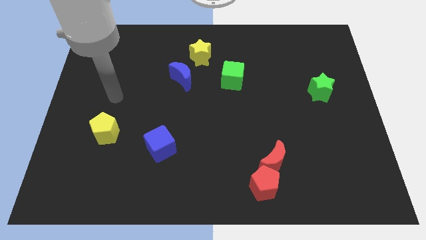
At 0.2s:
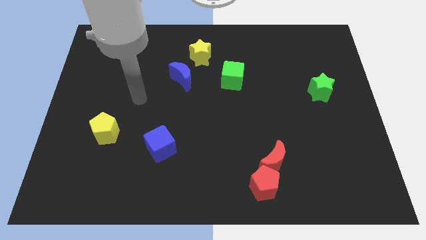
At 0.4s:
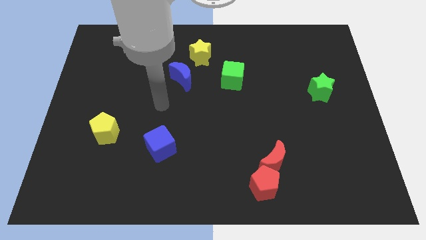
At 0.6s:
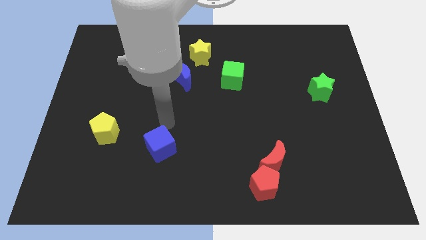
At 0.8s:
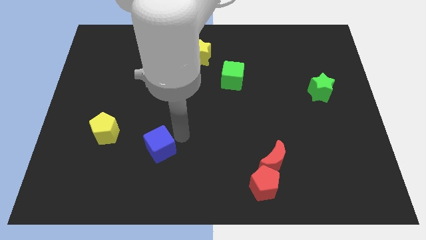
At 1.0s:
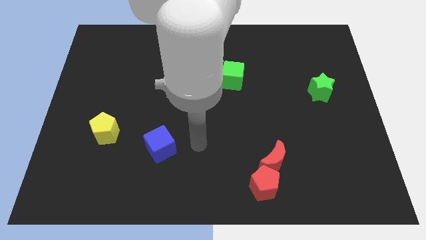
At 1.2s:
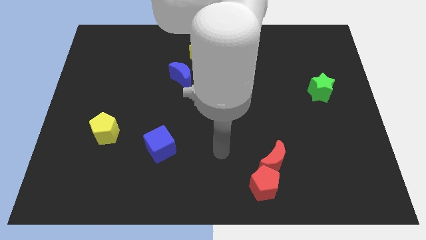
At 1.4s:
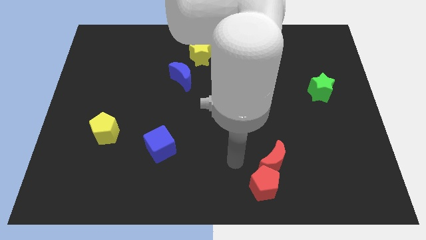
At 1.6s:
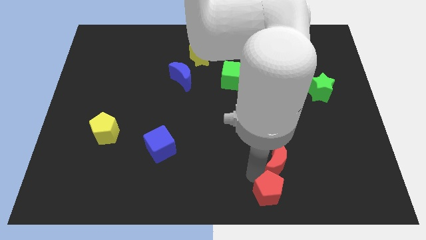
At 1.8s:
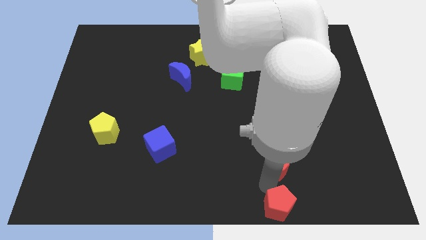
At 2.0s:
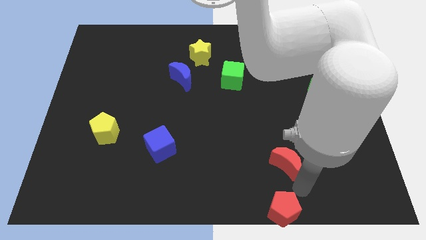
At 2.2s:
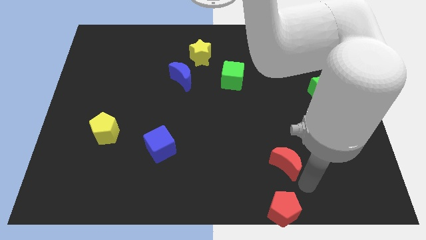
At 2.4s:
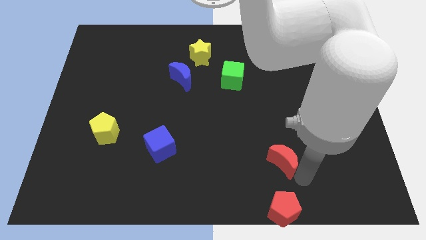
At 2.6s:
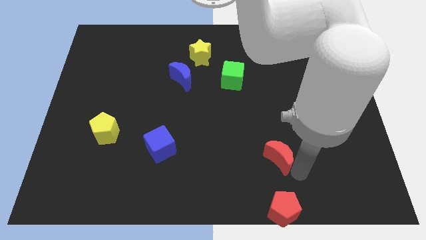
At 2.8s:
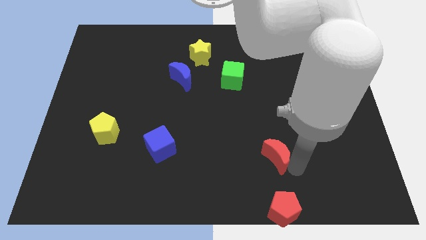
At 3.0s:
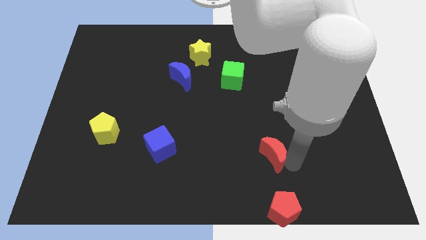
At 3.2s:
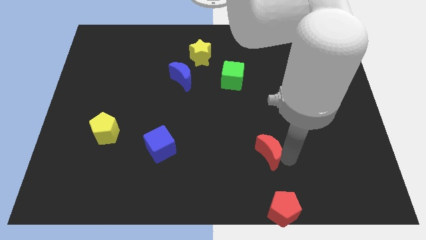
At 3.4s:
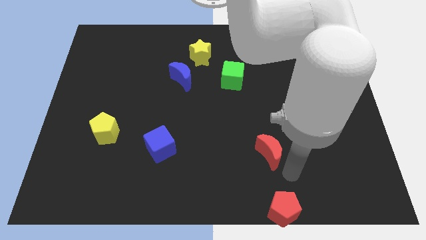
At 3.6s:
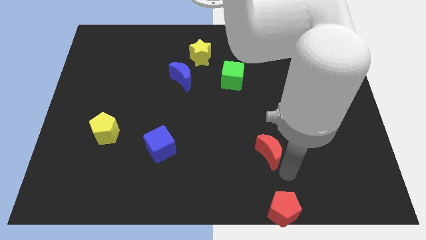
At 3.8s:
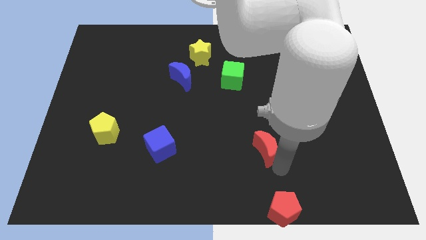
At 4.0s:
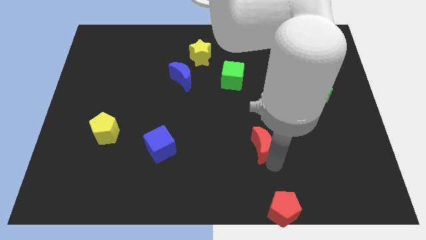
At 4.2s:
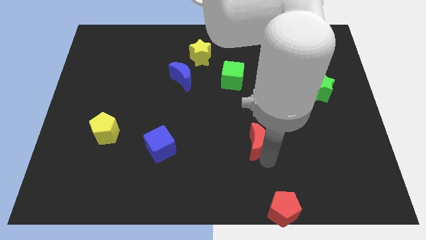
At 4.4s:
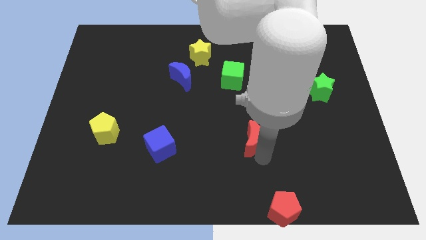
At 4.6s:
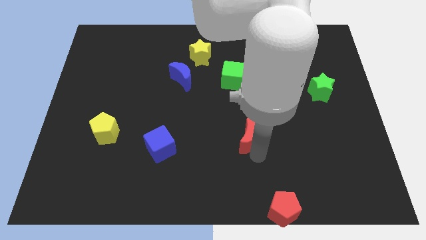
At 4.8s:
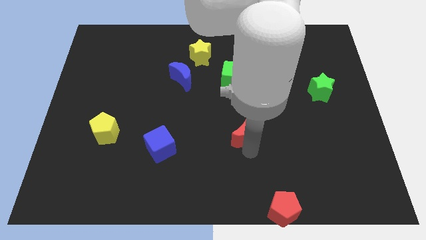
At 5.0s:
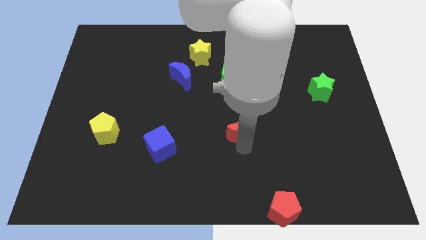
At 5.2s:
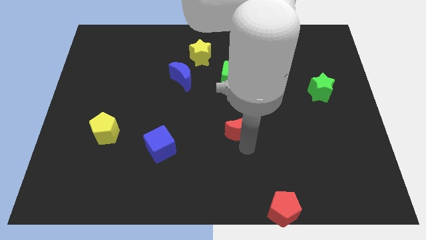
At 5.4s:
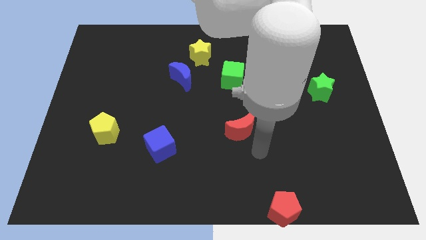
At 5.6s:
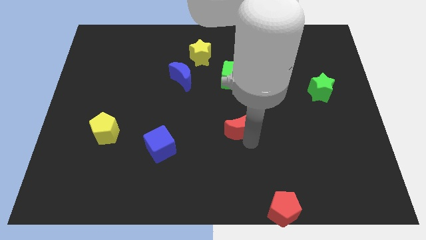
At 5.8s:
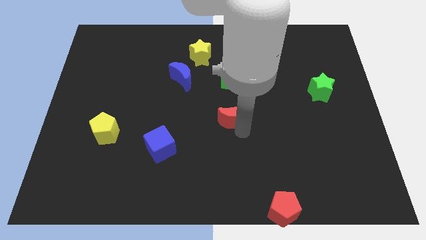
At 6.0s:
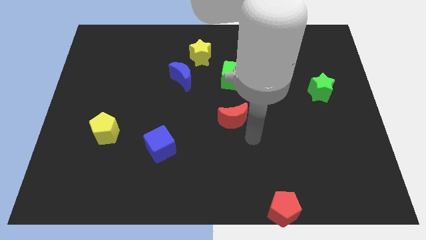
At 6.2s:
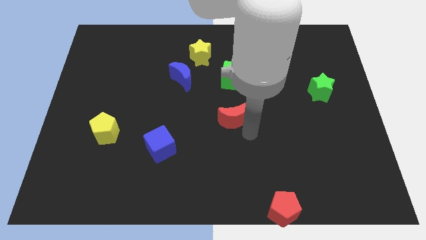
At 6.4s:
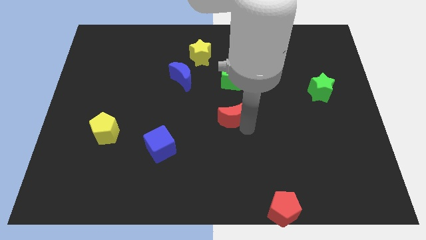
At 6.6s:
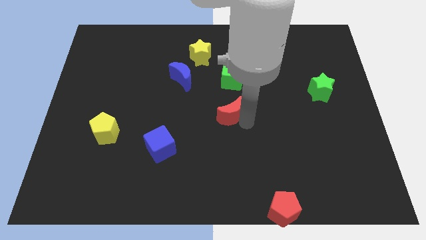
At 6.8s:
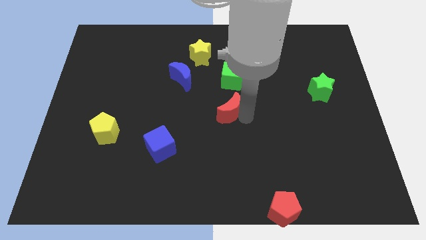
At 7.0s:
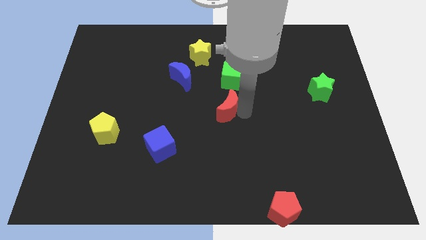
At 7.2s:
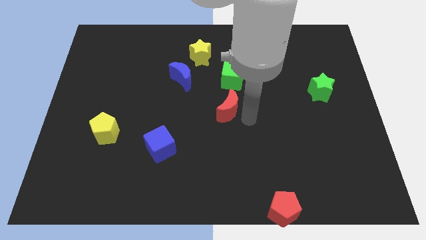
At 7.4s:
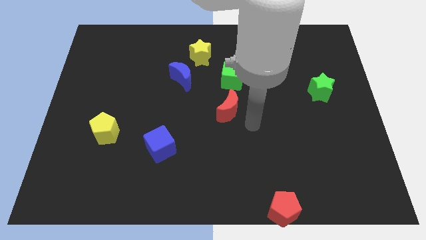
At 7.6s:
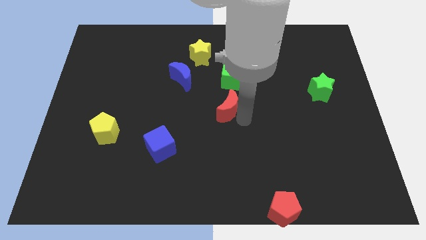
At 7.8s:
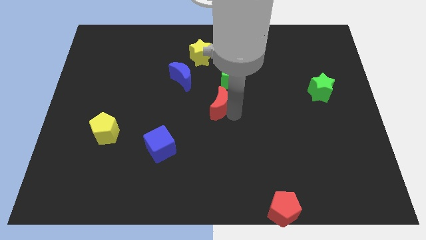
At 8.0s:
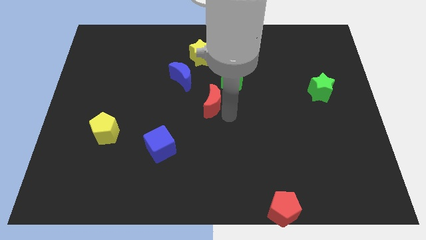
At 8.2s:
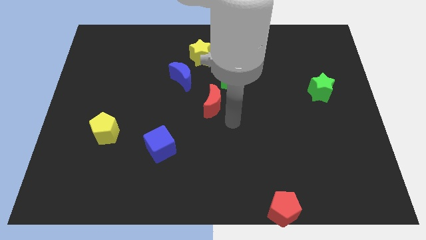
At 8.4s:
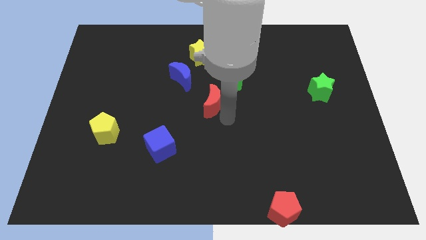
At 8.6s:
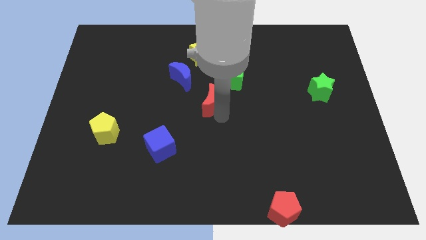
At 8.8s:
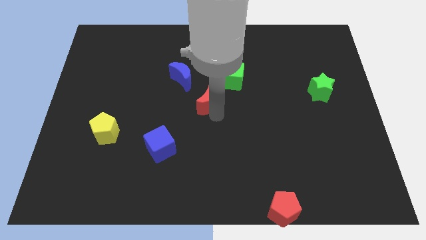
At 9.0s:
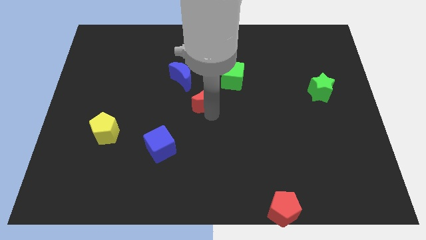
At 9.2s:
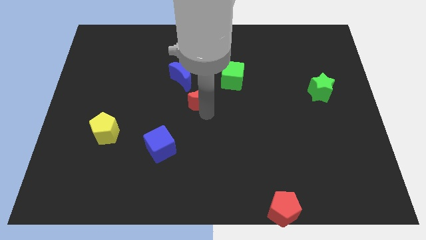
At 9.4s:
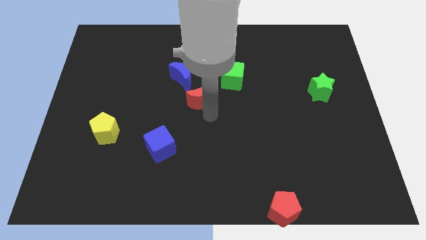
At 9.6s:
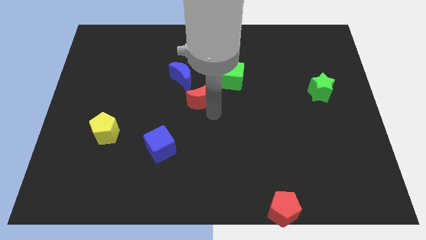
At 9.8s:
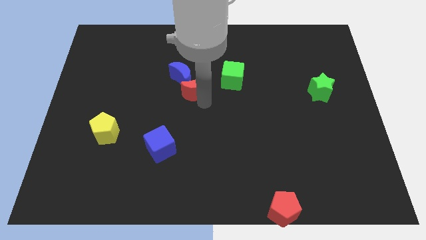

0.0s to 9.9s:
put the red moon next to the blue moon

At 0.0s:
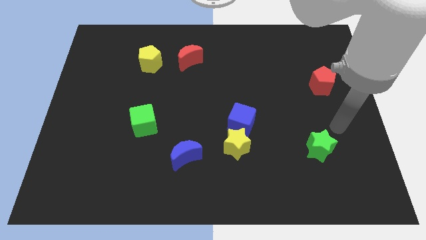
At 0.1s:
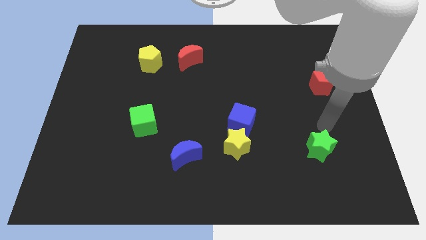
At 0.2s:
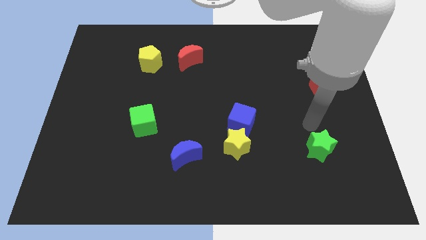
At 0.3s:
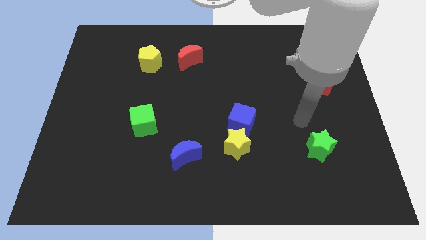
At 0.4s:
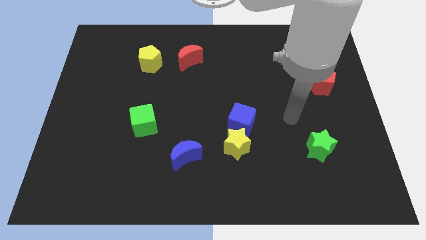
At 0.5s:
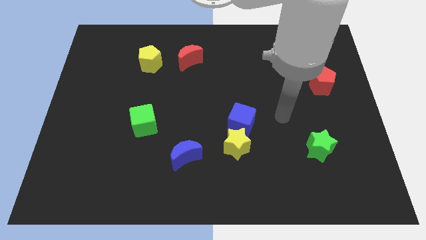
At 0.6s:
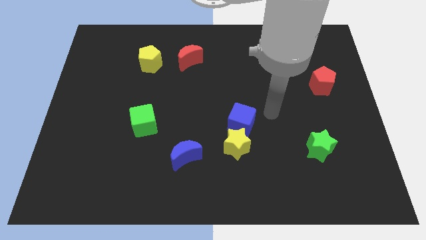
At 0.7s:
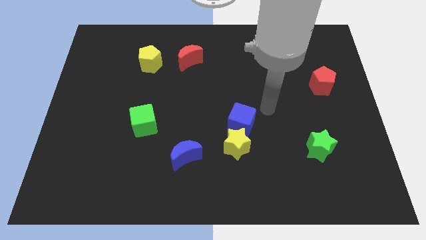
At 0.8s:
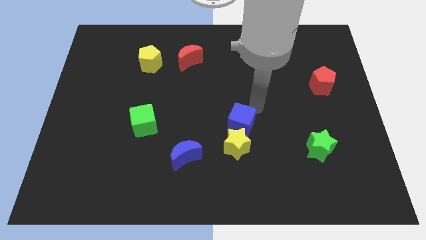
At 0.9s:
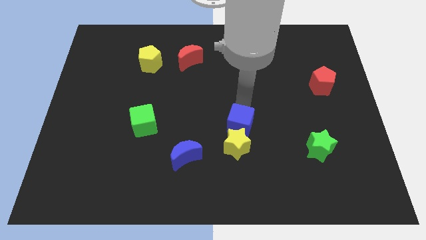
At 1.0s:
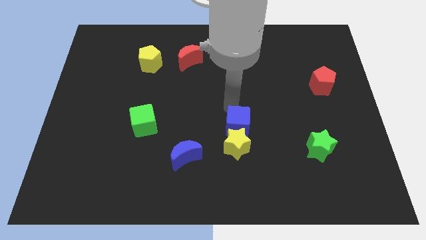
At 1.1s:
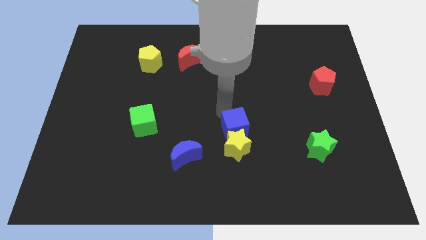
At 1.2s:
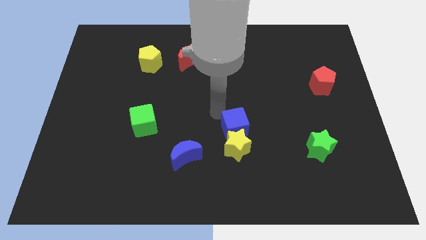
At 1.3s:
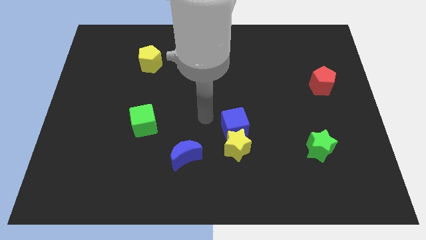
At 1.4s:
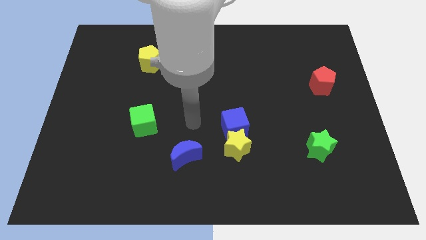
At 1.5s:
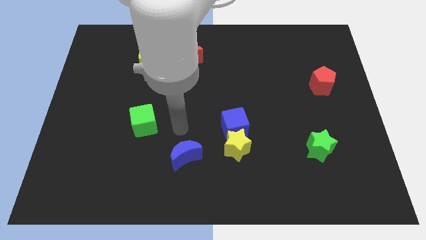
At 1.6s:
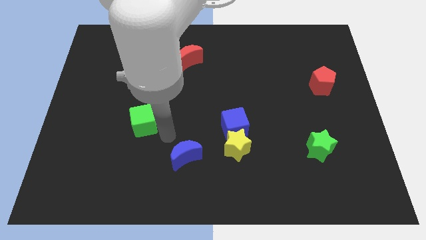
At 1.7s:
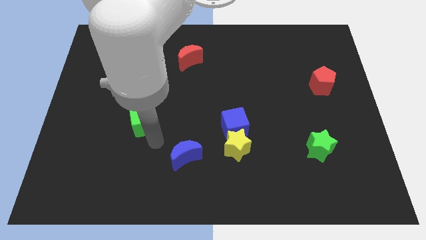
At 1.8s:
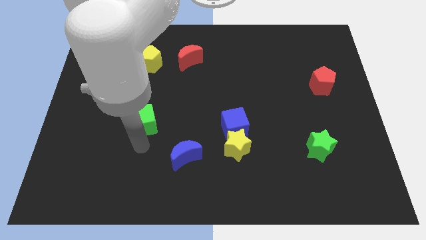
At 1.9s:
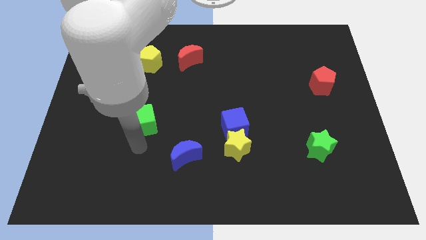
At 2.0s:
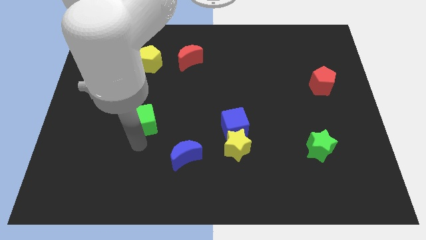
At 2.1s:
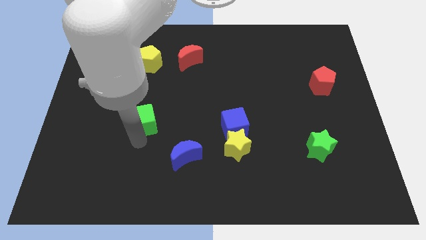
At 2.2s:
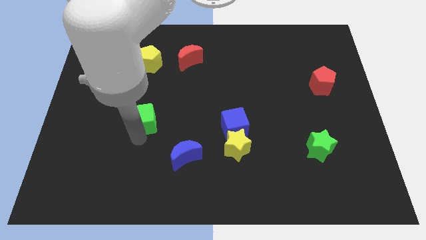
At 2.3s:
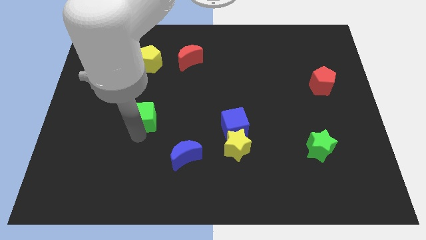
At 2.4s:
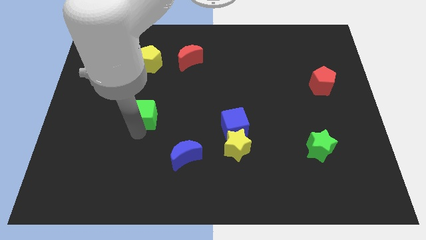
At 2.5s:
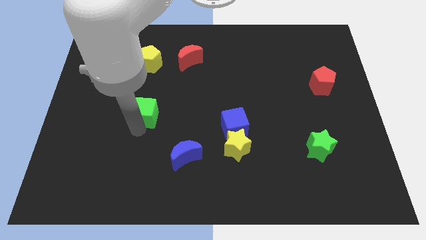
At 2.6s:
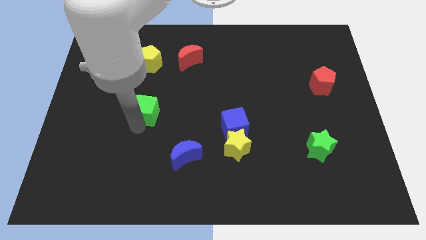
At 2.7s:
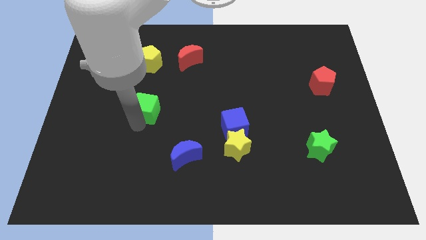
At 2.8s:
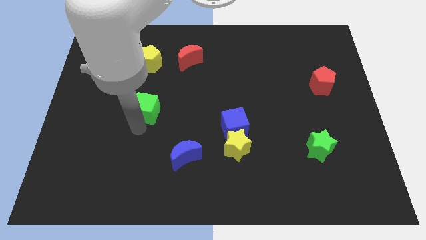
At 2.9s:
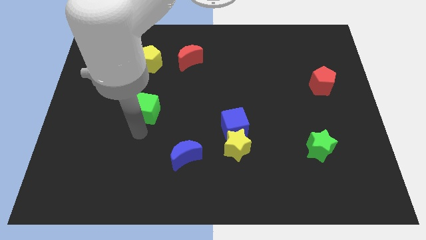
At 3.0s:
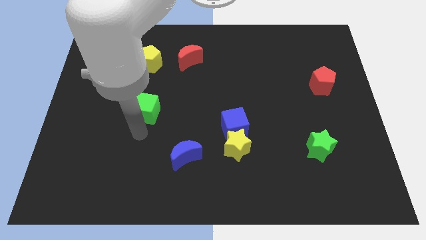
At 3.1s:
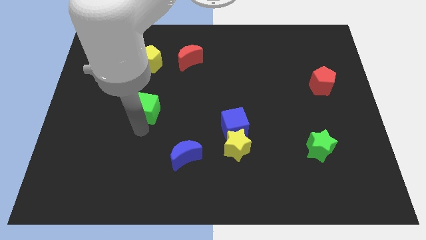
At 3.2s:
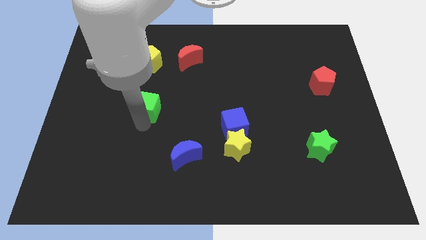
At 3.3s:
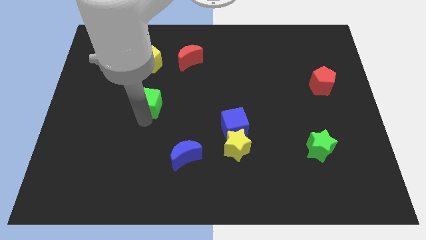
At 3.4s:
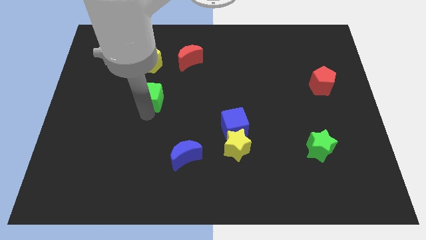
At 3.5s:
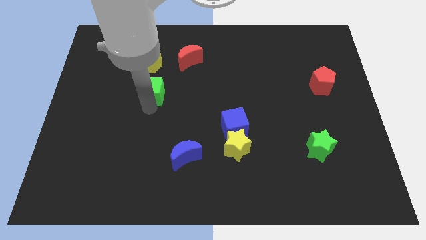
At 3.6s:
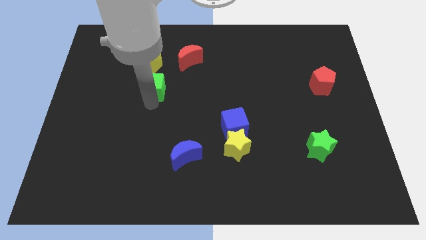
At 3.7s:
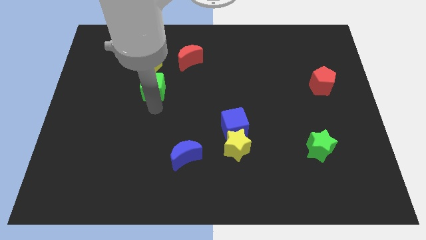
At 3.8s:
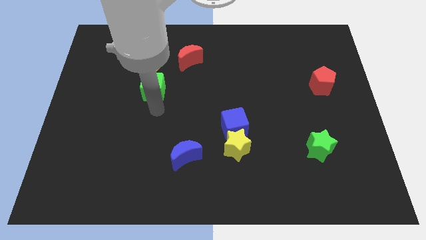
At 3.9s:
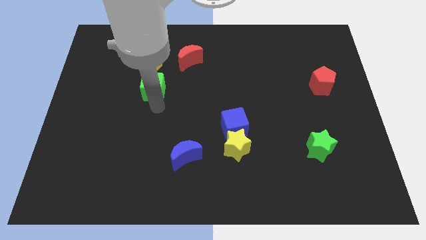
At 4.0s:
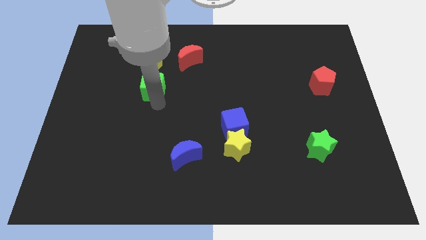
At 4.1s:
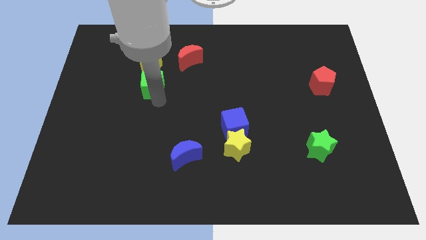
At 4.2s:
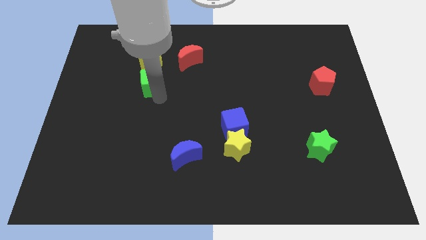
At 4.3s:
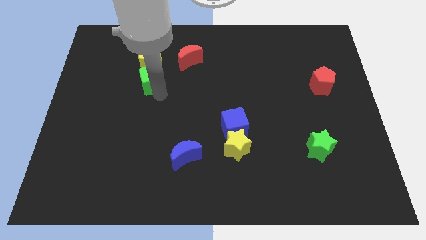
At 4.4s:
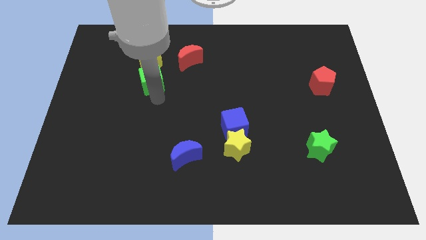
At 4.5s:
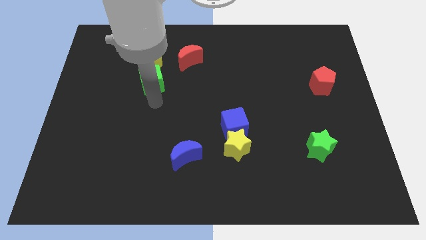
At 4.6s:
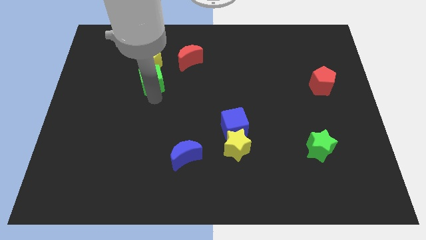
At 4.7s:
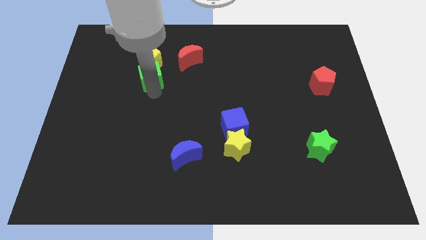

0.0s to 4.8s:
put the green cube to the yellow pentagon
